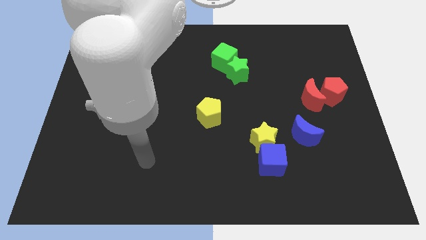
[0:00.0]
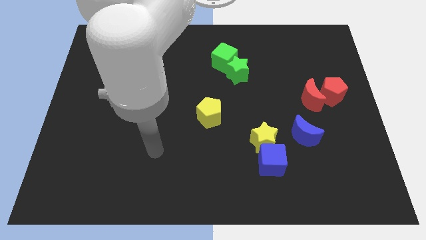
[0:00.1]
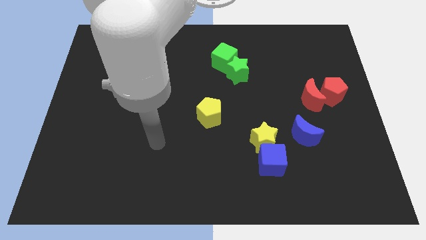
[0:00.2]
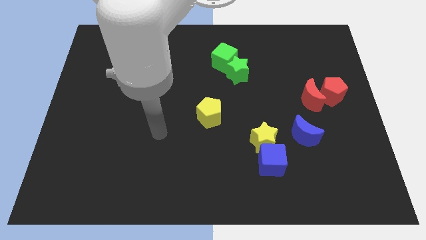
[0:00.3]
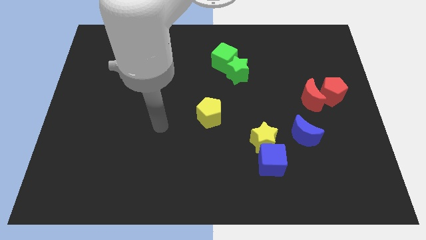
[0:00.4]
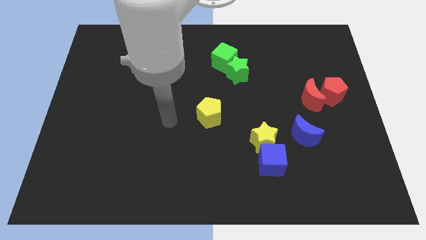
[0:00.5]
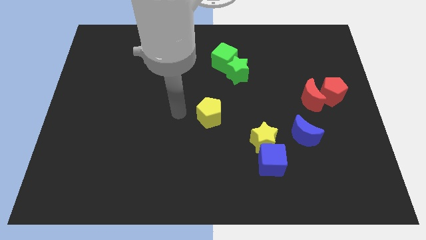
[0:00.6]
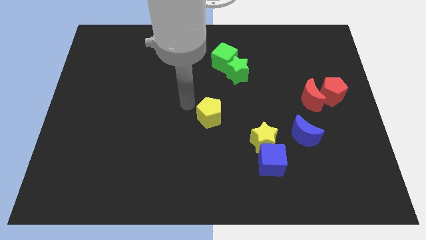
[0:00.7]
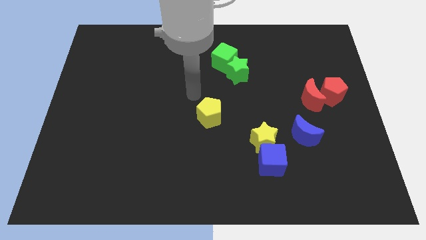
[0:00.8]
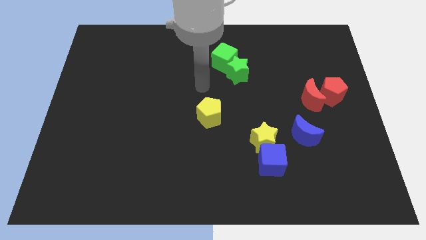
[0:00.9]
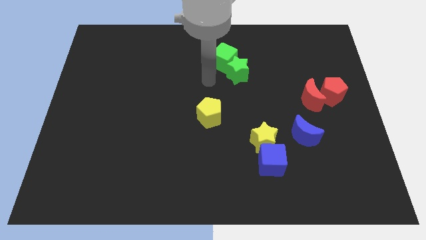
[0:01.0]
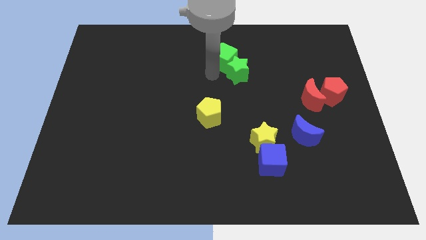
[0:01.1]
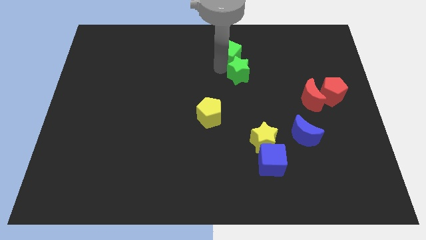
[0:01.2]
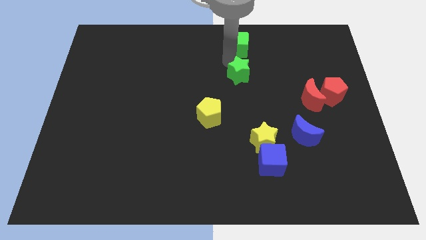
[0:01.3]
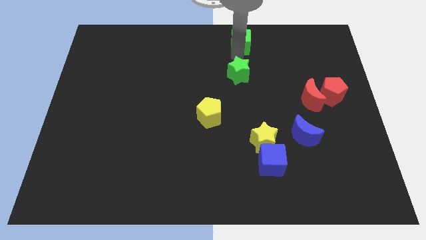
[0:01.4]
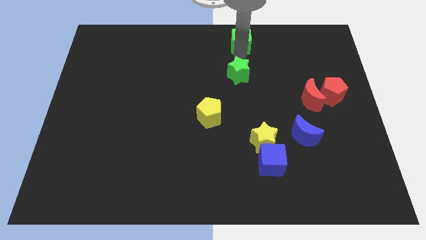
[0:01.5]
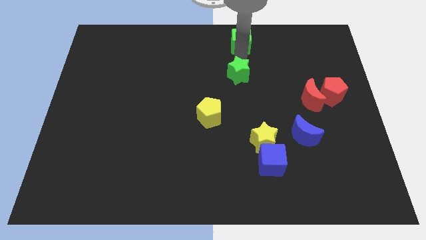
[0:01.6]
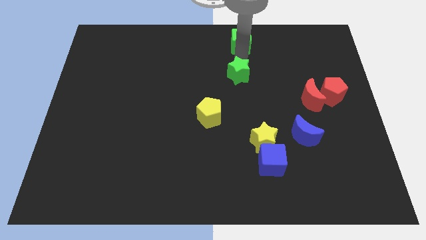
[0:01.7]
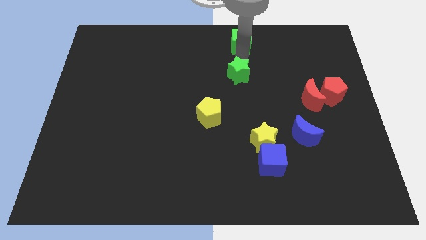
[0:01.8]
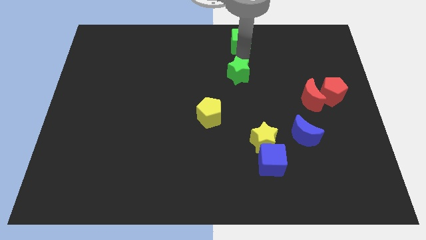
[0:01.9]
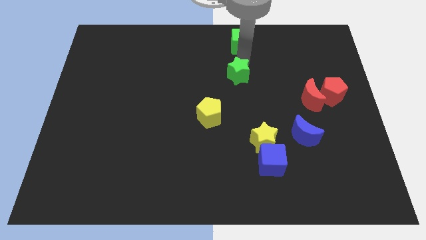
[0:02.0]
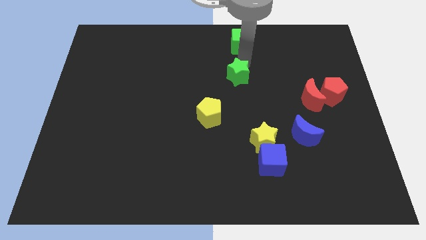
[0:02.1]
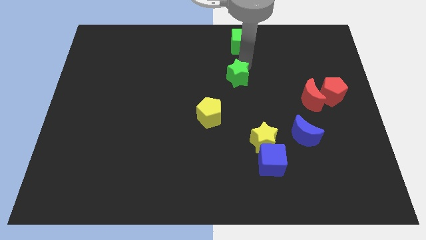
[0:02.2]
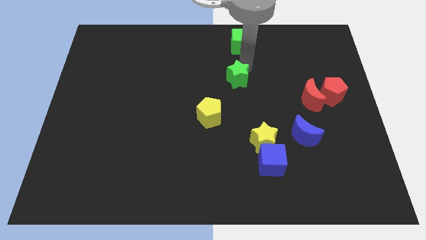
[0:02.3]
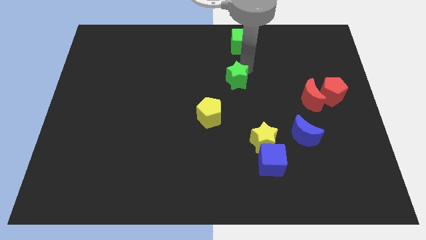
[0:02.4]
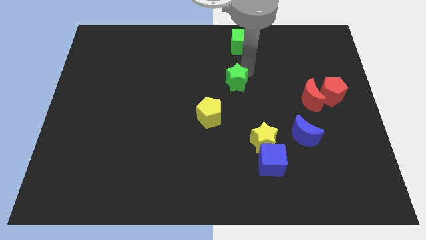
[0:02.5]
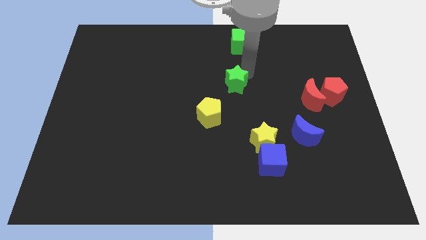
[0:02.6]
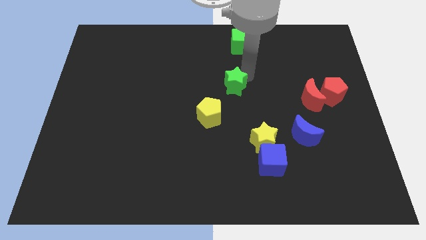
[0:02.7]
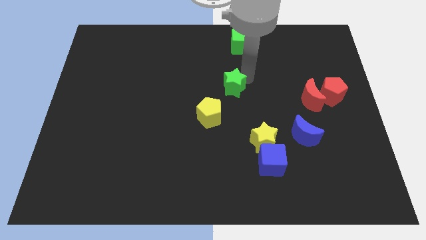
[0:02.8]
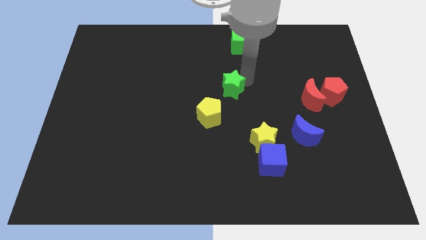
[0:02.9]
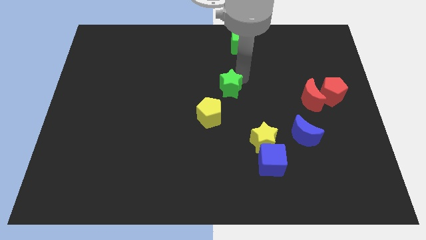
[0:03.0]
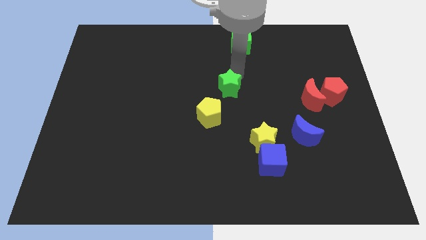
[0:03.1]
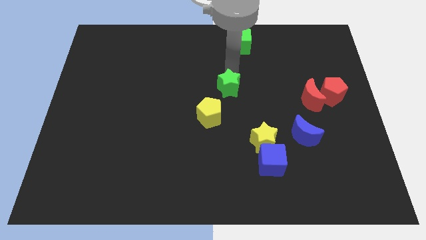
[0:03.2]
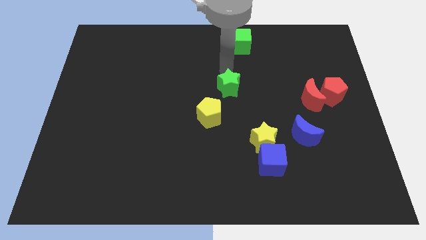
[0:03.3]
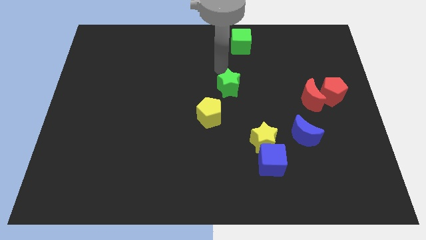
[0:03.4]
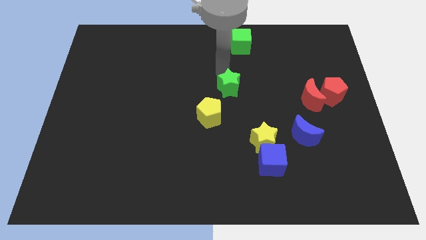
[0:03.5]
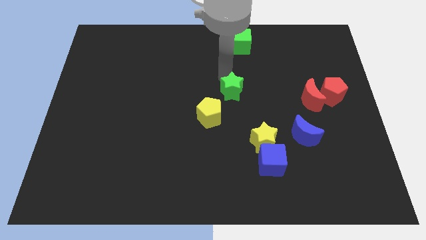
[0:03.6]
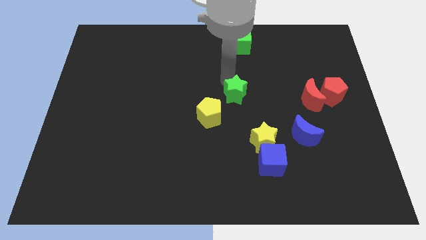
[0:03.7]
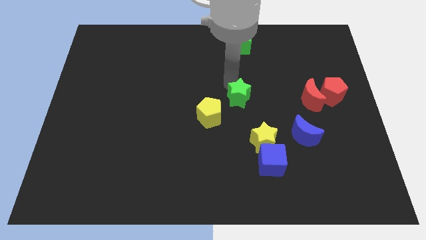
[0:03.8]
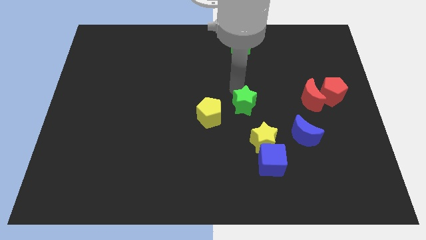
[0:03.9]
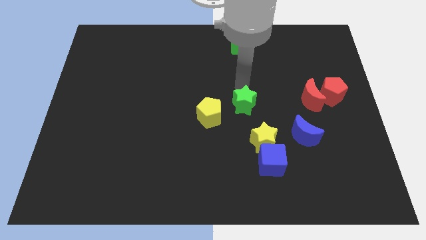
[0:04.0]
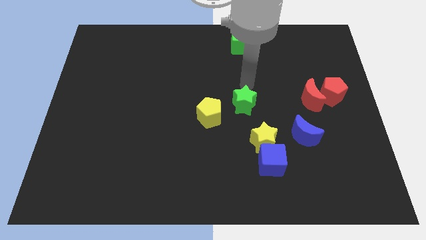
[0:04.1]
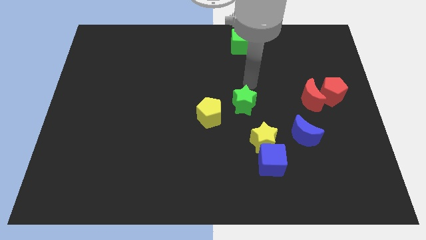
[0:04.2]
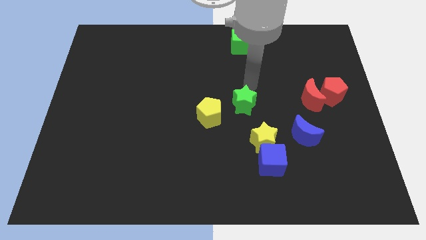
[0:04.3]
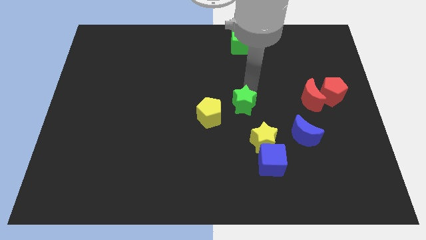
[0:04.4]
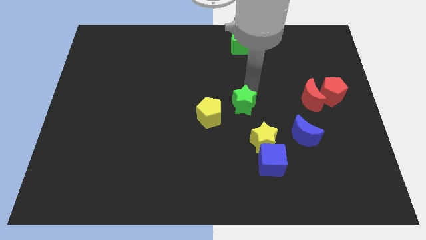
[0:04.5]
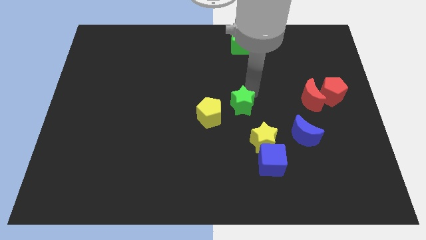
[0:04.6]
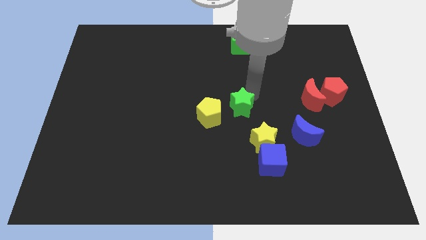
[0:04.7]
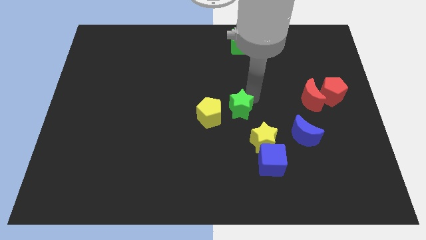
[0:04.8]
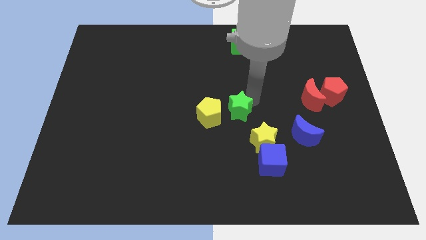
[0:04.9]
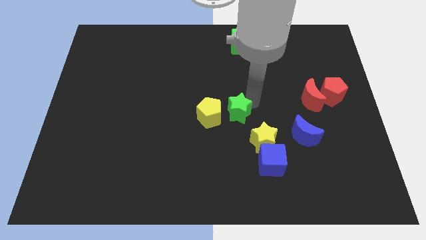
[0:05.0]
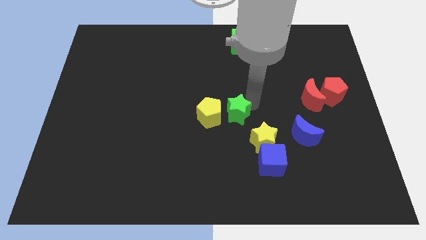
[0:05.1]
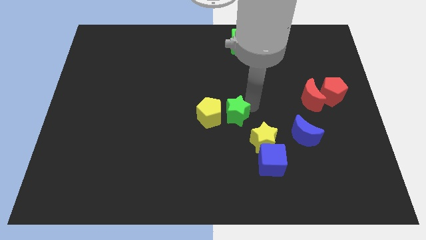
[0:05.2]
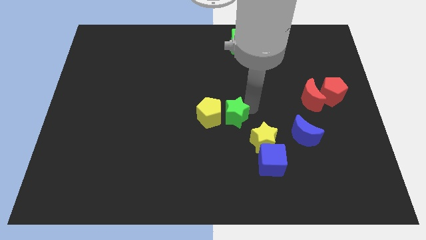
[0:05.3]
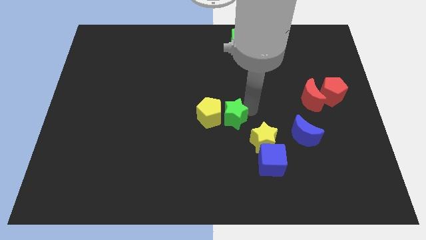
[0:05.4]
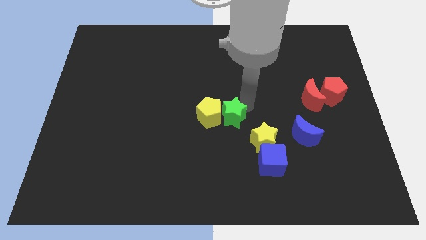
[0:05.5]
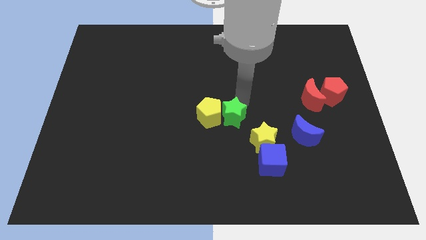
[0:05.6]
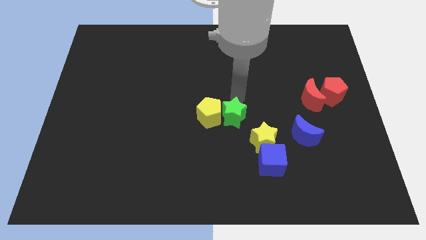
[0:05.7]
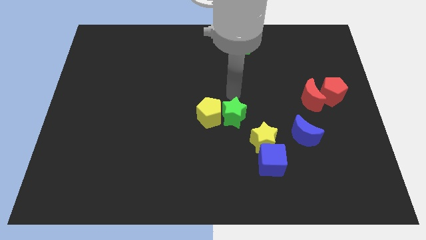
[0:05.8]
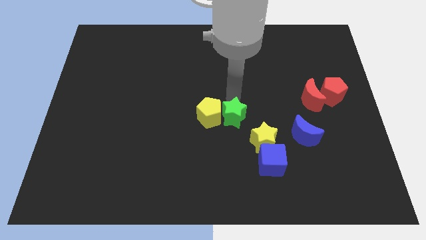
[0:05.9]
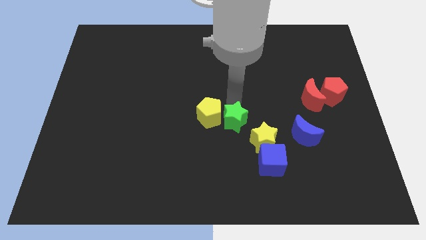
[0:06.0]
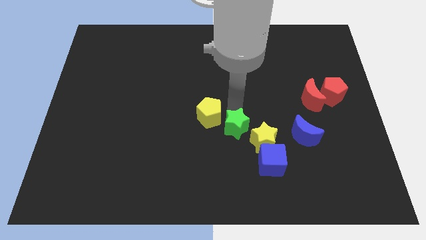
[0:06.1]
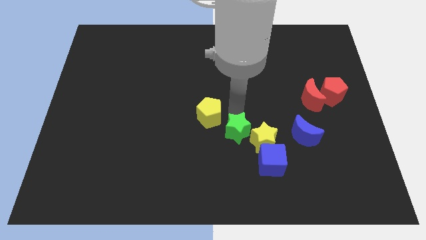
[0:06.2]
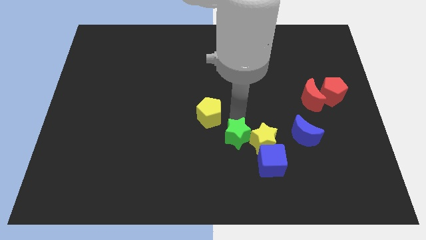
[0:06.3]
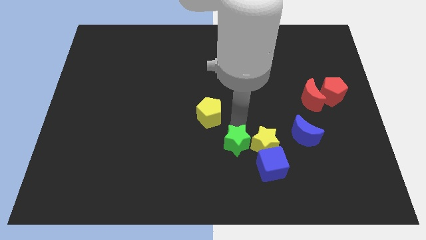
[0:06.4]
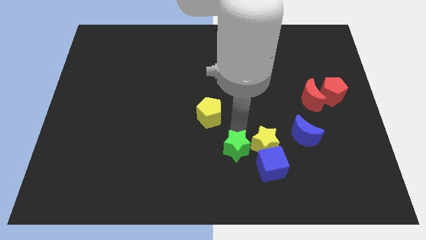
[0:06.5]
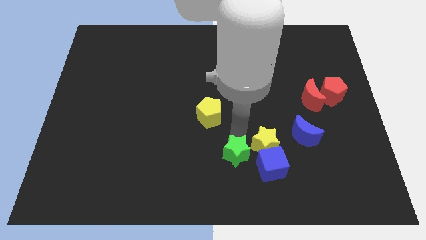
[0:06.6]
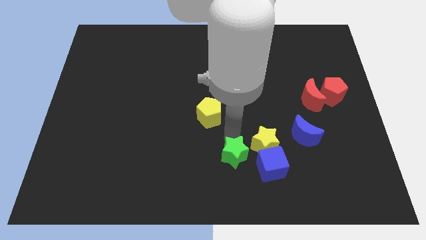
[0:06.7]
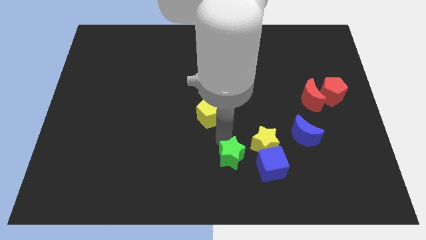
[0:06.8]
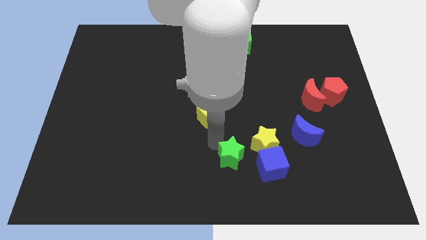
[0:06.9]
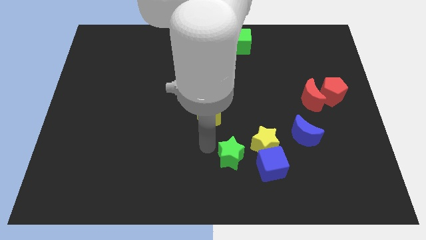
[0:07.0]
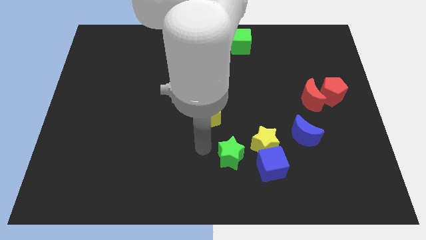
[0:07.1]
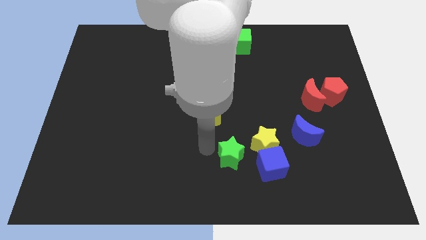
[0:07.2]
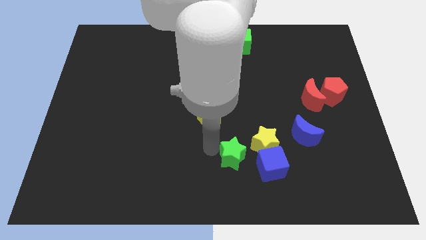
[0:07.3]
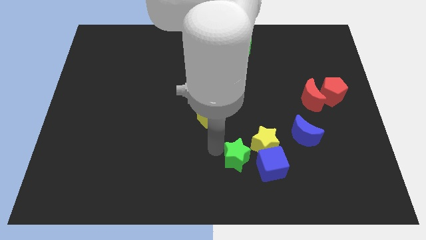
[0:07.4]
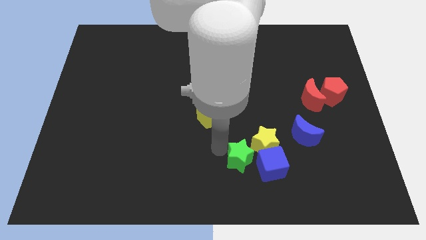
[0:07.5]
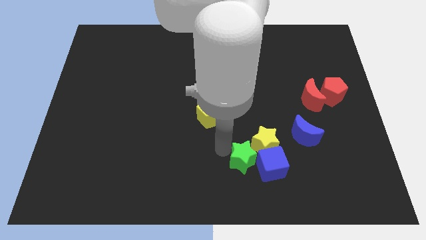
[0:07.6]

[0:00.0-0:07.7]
push the green star next to the blue cube
